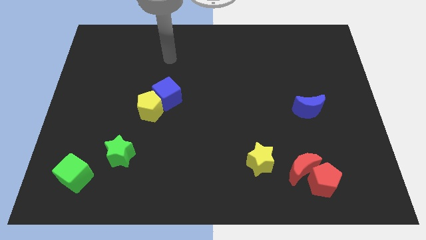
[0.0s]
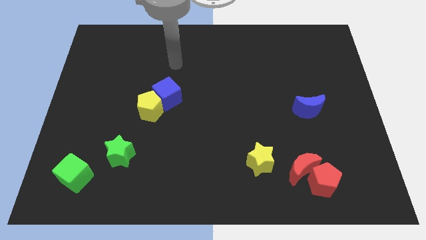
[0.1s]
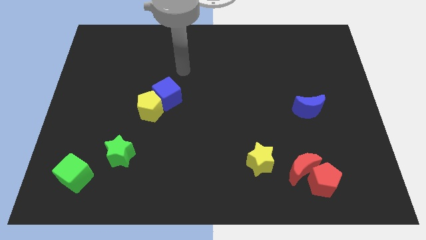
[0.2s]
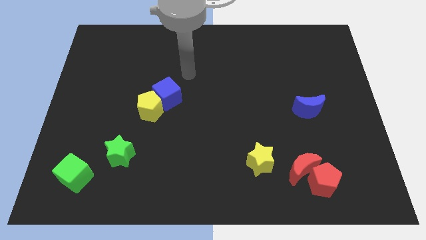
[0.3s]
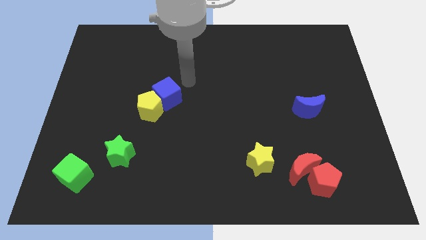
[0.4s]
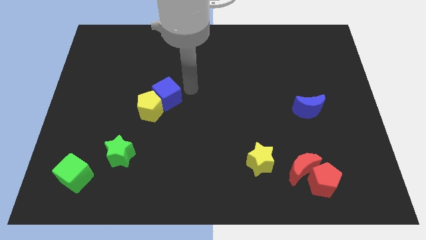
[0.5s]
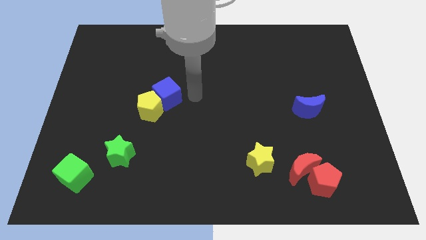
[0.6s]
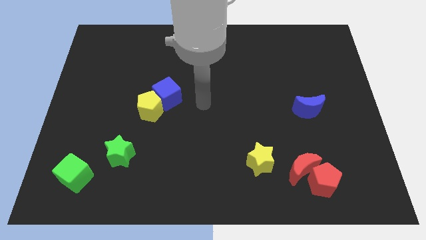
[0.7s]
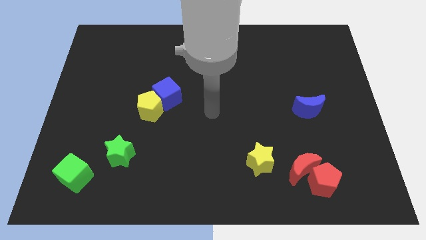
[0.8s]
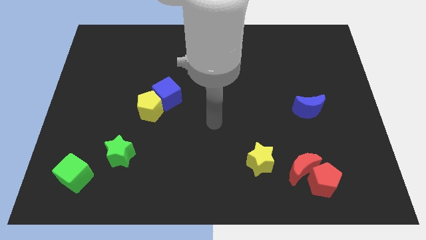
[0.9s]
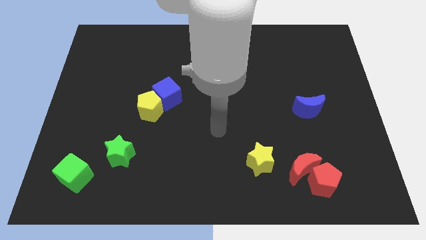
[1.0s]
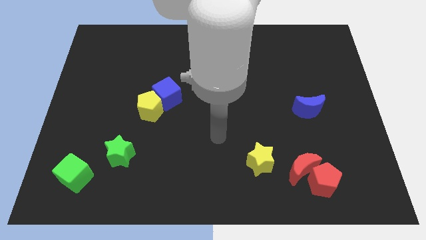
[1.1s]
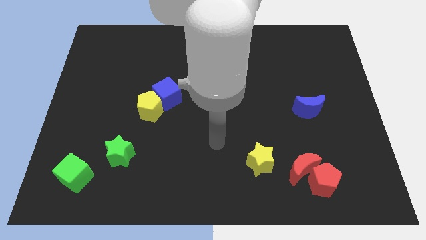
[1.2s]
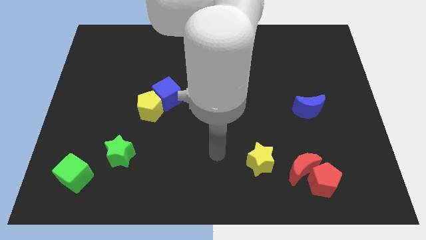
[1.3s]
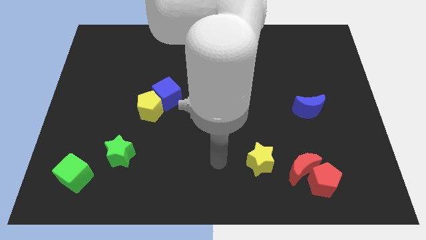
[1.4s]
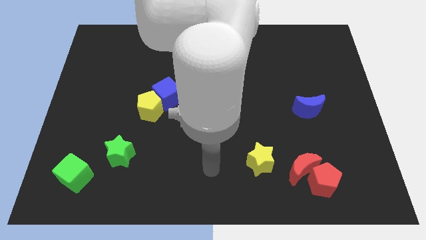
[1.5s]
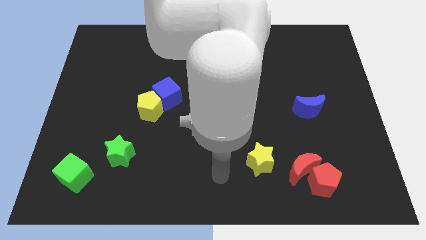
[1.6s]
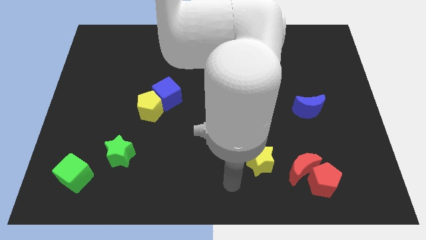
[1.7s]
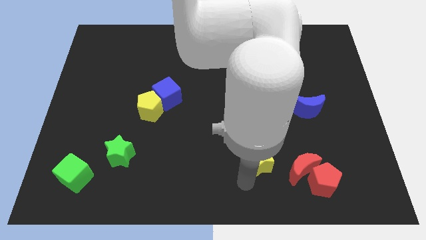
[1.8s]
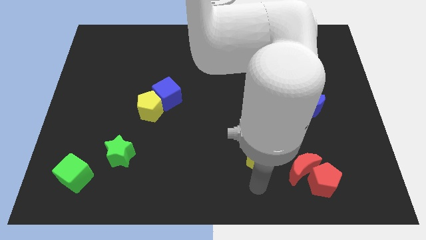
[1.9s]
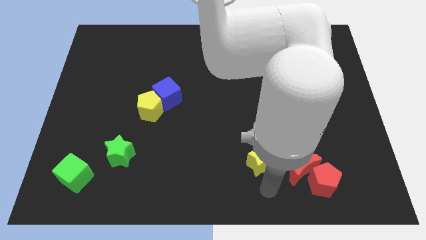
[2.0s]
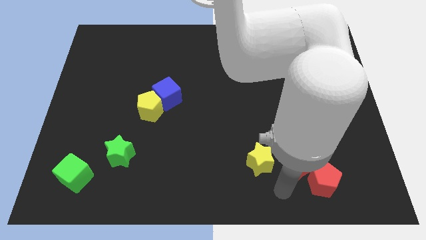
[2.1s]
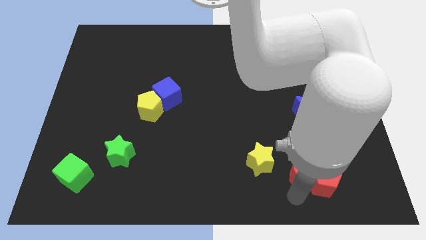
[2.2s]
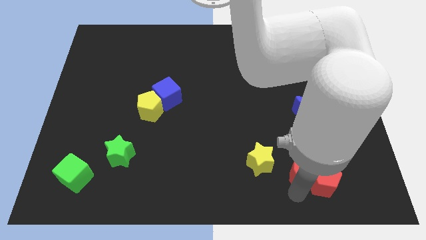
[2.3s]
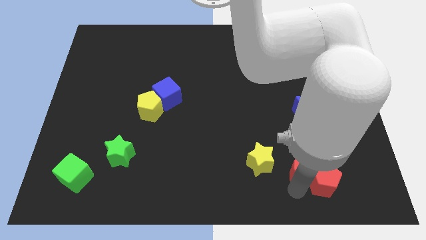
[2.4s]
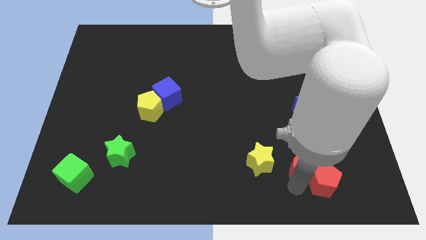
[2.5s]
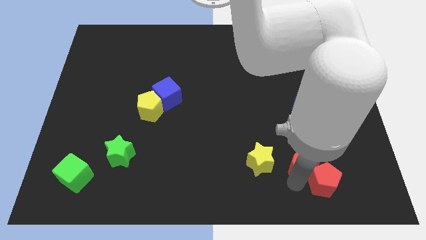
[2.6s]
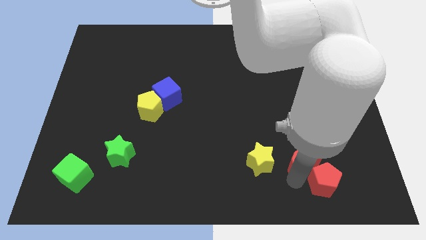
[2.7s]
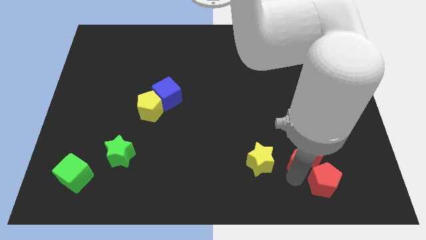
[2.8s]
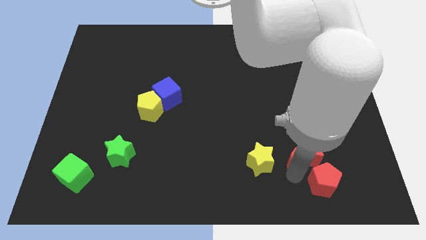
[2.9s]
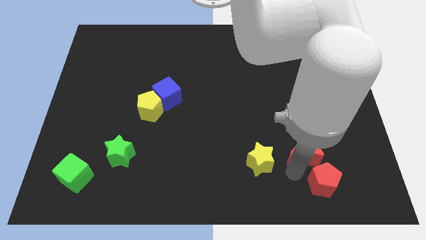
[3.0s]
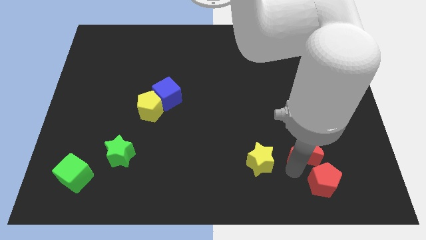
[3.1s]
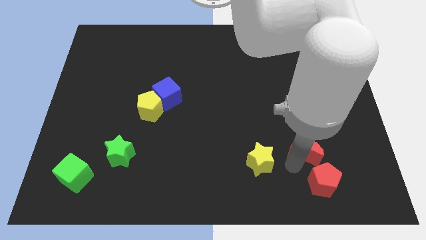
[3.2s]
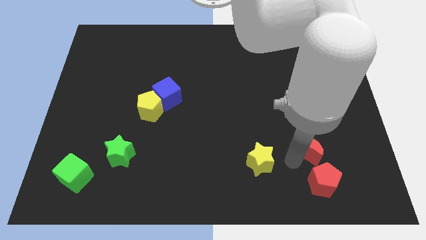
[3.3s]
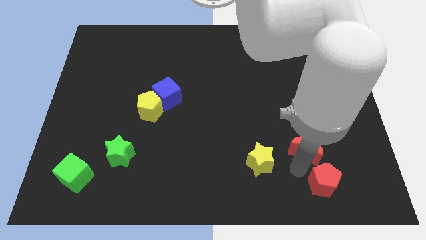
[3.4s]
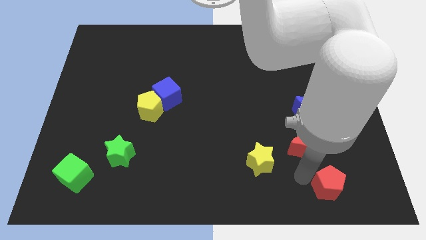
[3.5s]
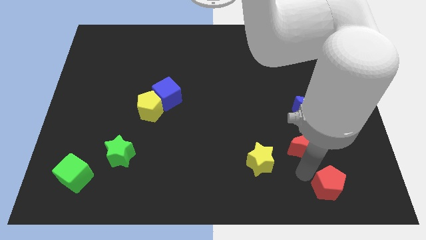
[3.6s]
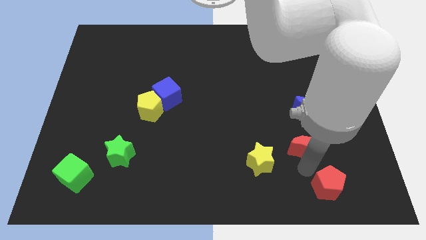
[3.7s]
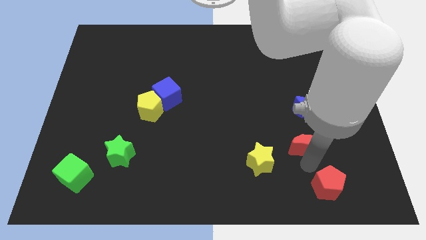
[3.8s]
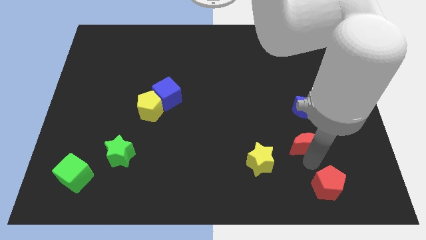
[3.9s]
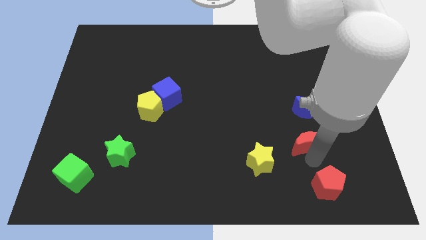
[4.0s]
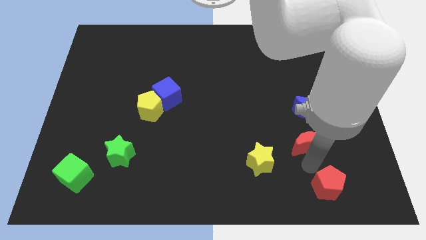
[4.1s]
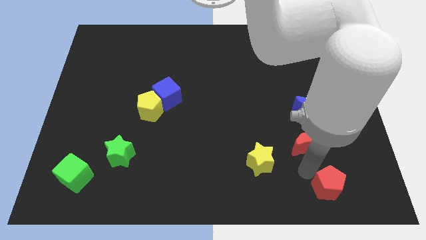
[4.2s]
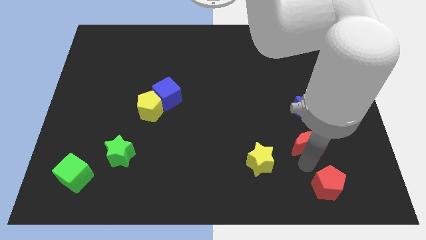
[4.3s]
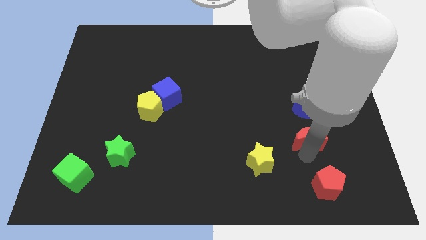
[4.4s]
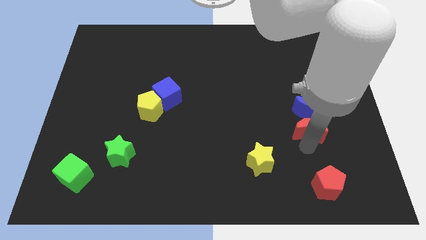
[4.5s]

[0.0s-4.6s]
slide the red moon close to the blue moon

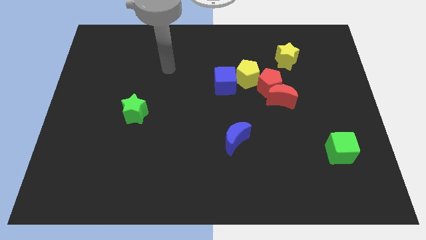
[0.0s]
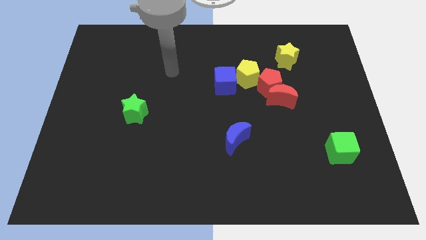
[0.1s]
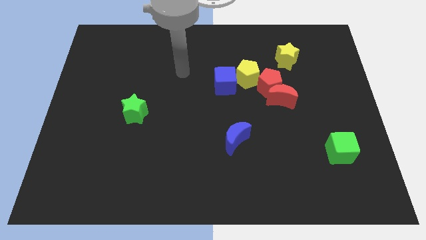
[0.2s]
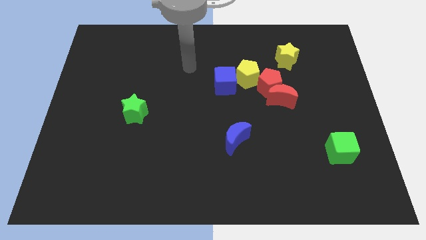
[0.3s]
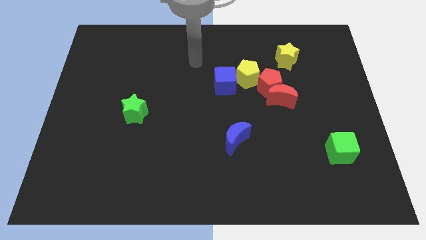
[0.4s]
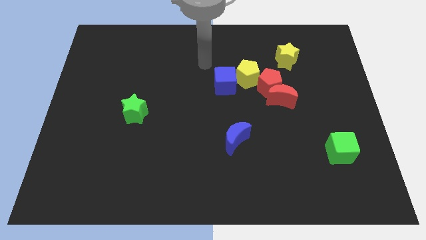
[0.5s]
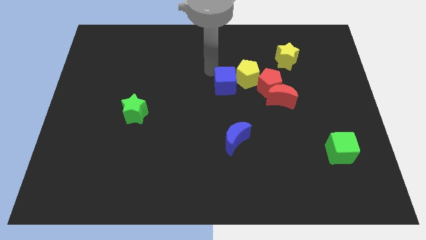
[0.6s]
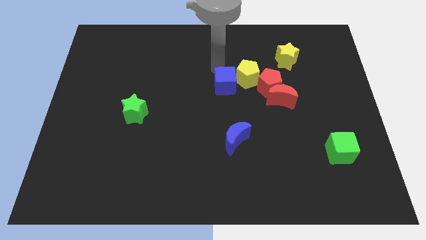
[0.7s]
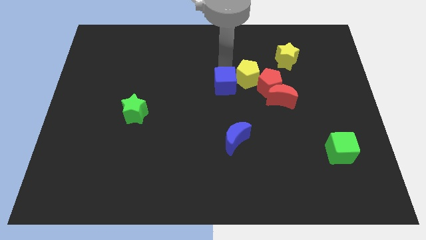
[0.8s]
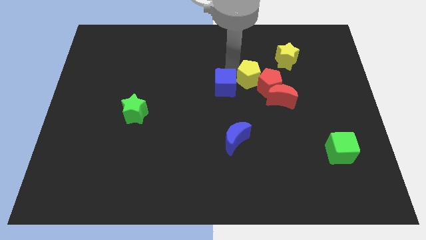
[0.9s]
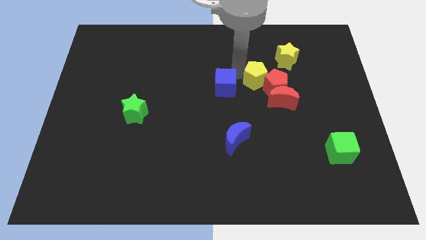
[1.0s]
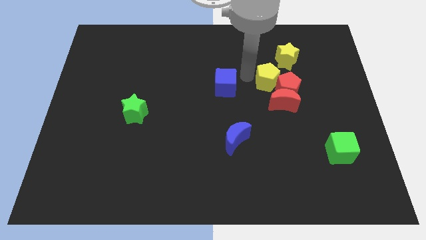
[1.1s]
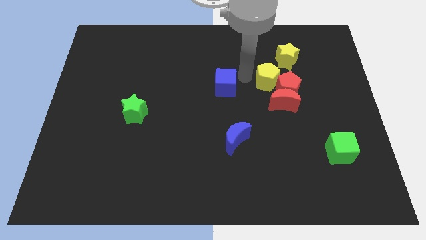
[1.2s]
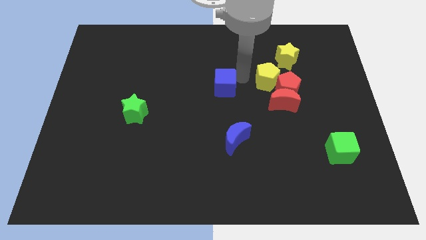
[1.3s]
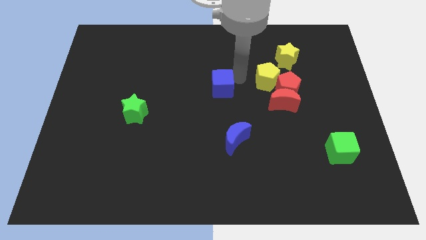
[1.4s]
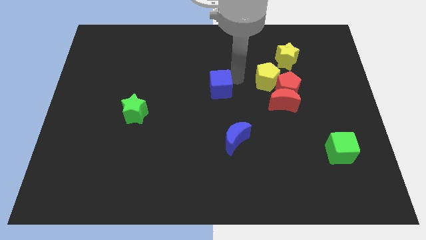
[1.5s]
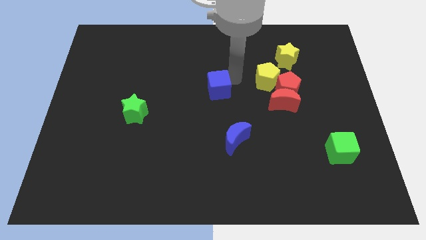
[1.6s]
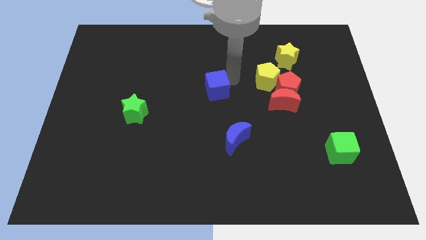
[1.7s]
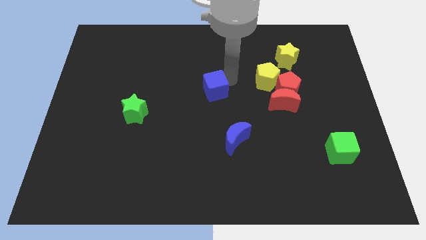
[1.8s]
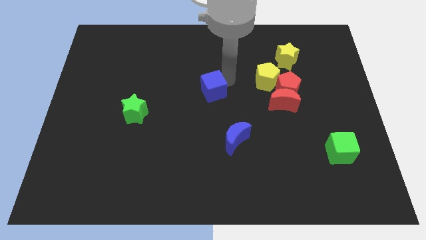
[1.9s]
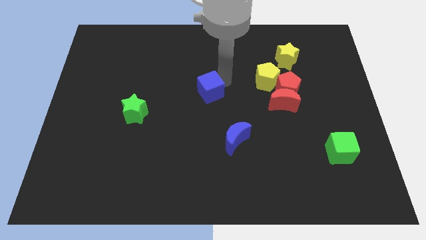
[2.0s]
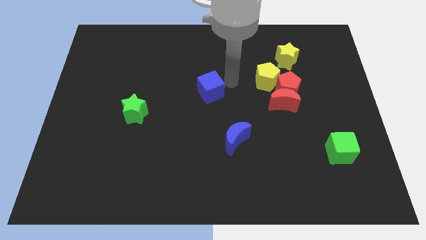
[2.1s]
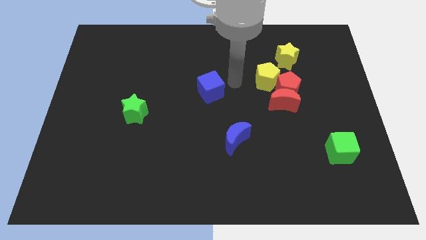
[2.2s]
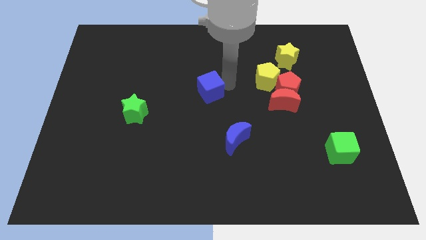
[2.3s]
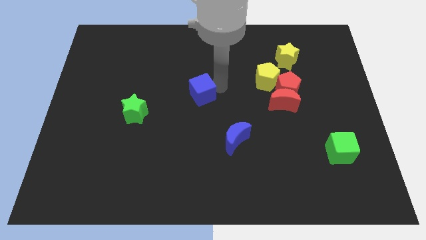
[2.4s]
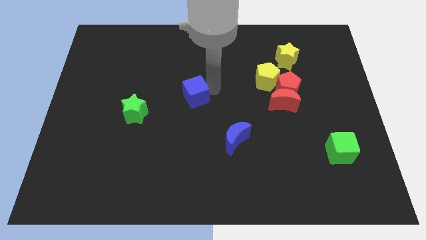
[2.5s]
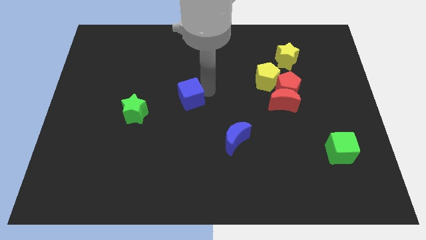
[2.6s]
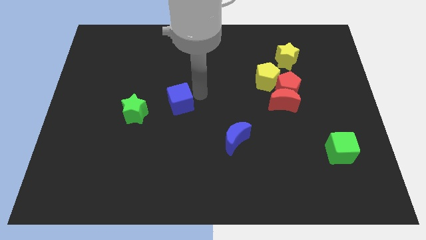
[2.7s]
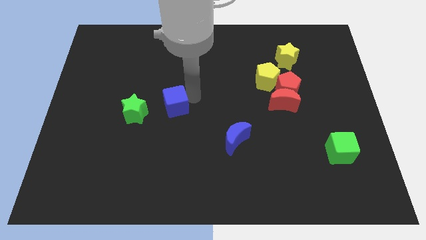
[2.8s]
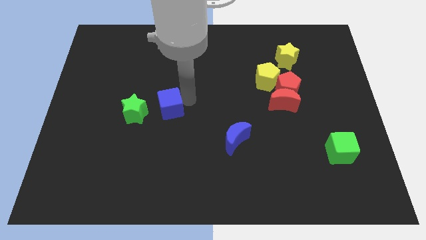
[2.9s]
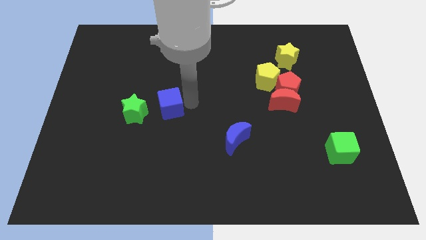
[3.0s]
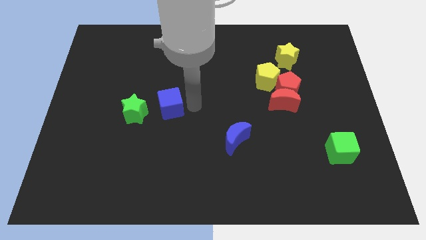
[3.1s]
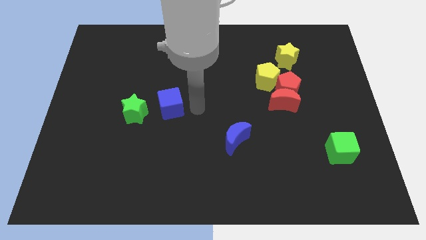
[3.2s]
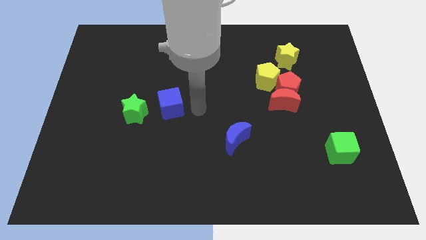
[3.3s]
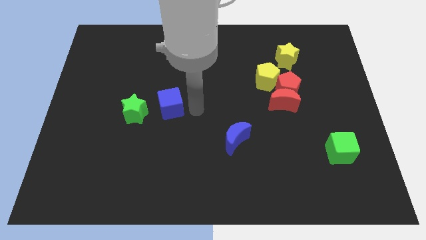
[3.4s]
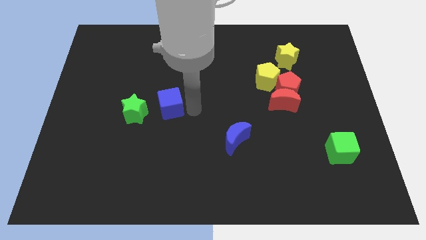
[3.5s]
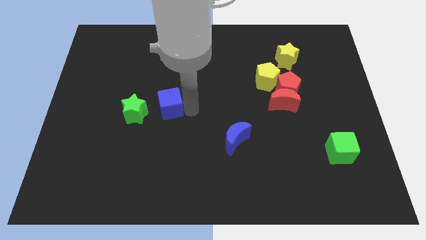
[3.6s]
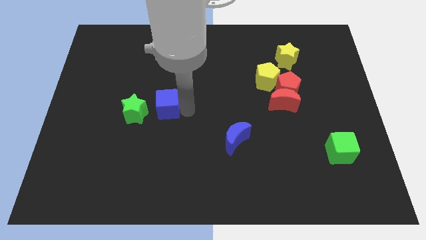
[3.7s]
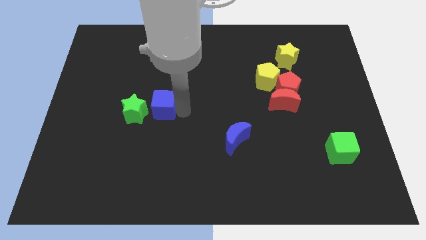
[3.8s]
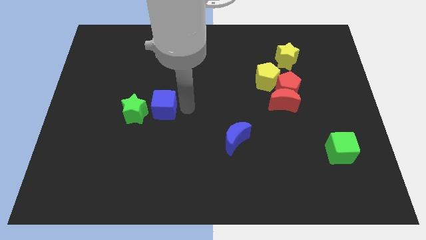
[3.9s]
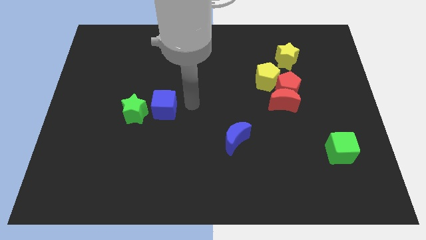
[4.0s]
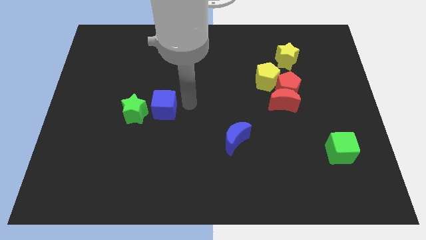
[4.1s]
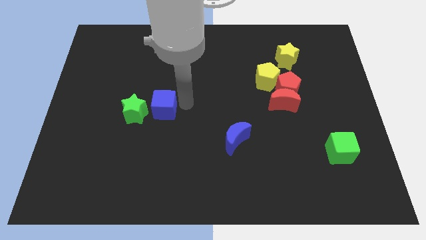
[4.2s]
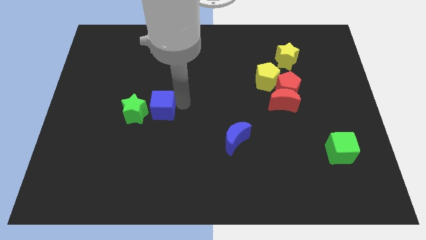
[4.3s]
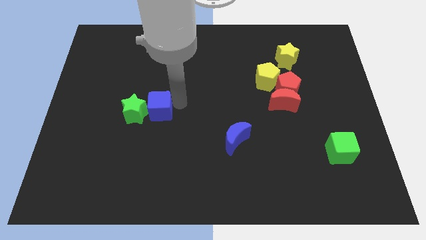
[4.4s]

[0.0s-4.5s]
put the blue cube to the green star
